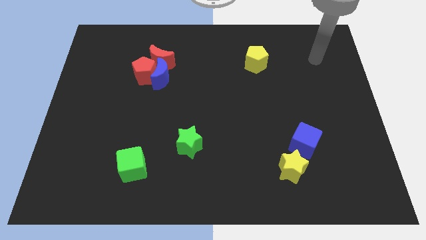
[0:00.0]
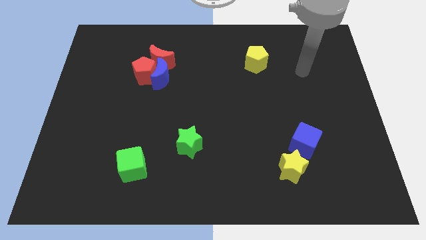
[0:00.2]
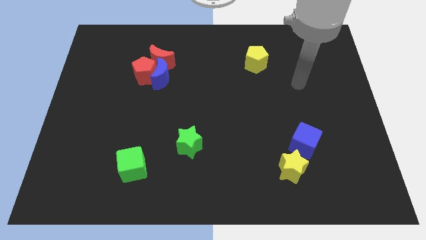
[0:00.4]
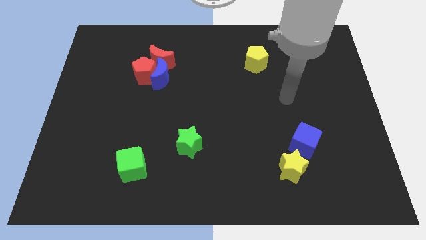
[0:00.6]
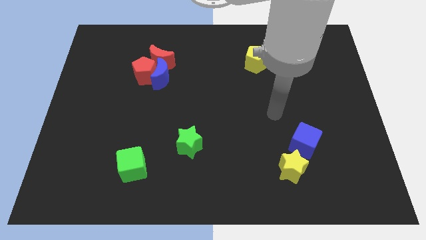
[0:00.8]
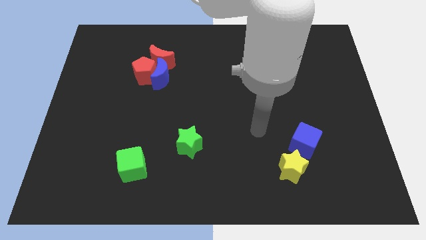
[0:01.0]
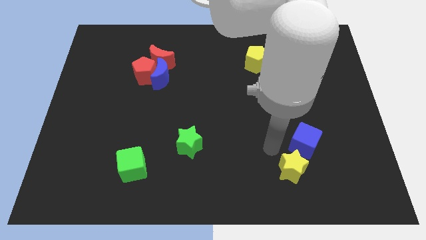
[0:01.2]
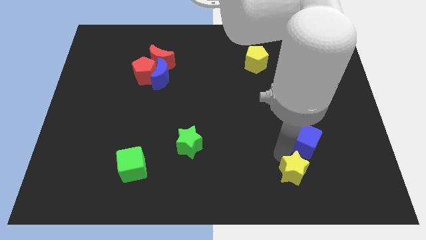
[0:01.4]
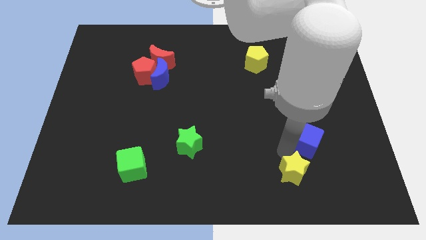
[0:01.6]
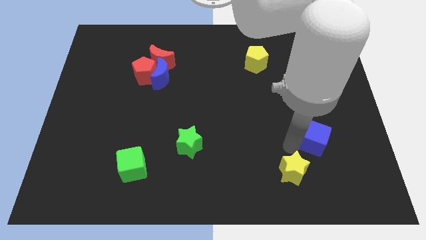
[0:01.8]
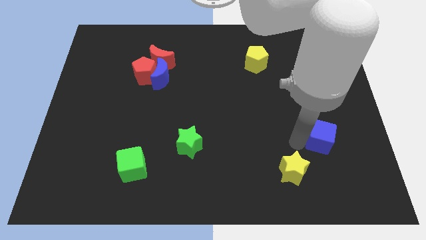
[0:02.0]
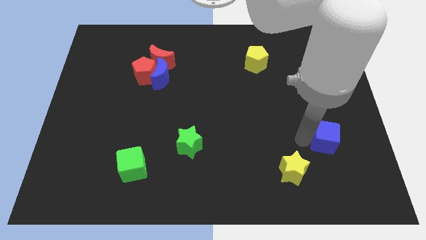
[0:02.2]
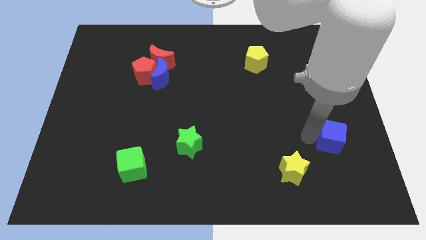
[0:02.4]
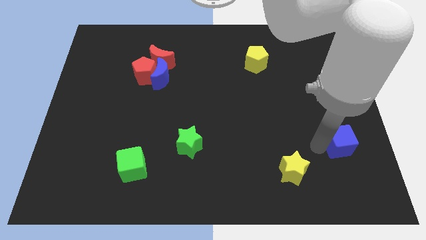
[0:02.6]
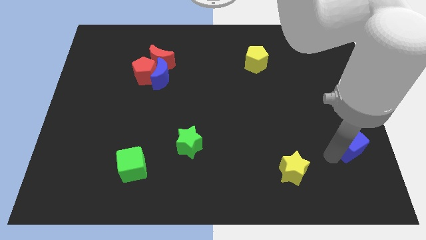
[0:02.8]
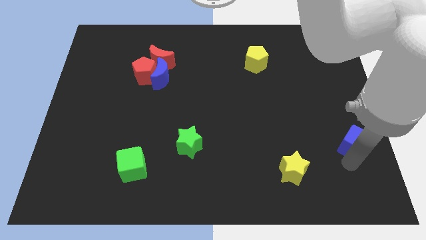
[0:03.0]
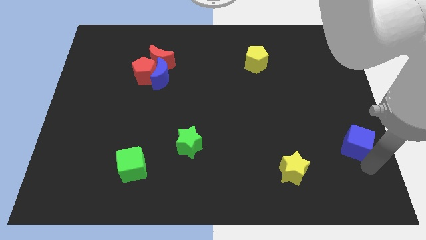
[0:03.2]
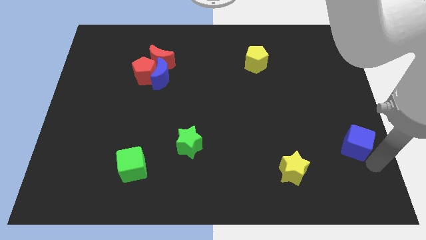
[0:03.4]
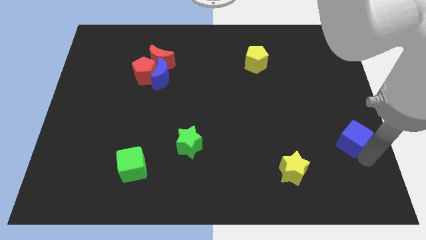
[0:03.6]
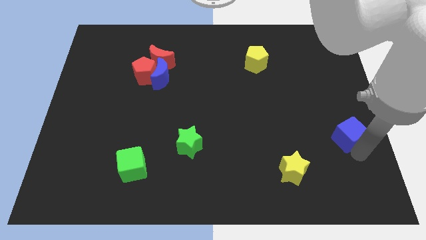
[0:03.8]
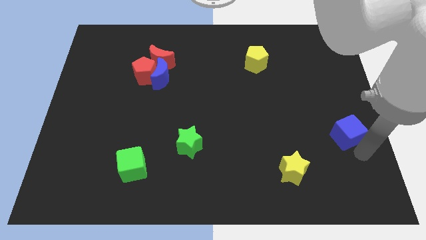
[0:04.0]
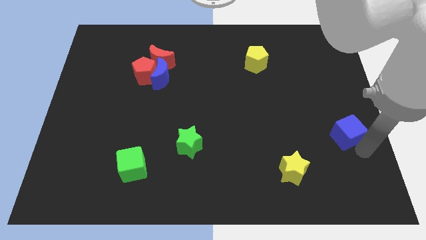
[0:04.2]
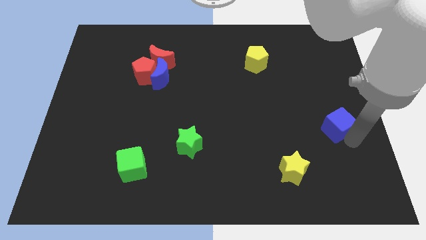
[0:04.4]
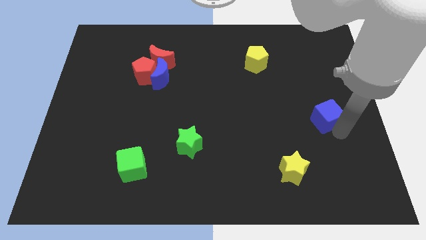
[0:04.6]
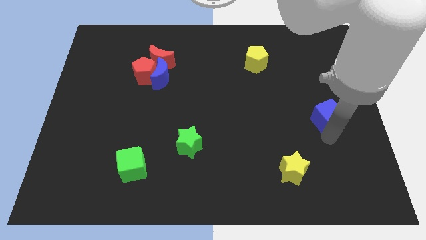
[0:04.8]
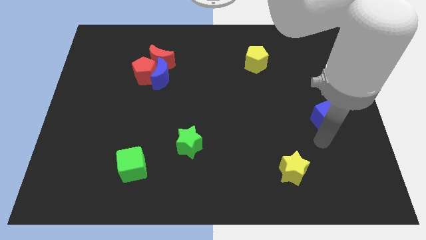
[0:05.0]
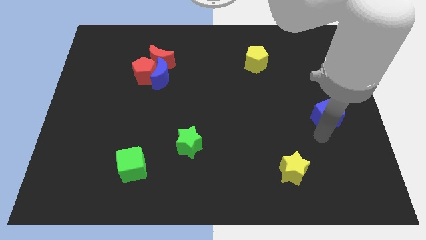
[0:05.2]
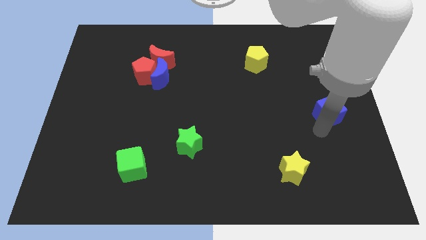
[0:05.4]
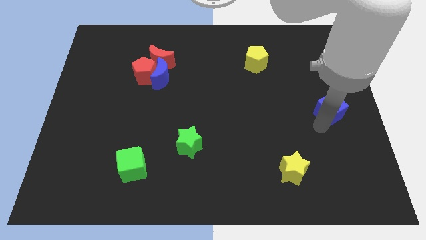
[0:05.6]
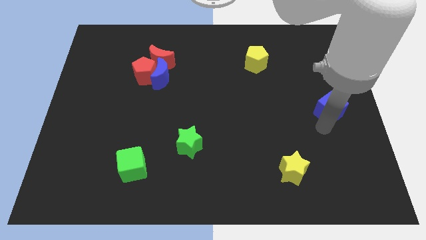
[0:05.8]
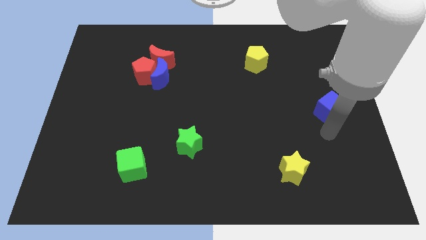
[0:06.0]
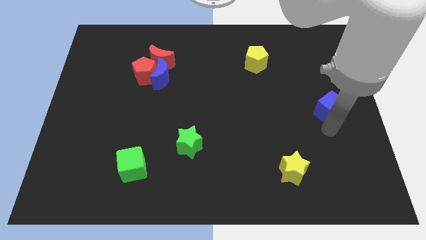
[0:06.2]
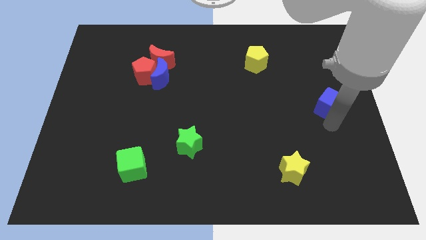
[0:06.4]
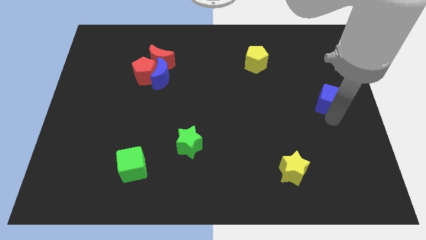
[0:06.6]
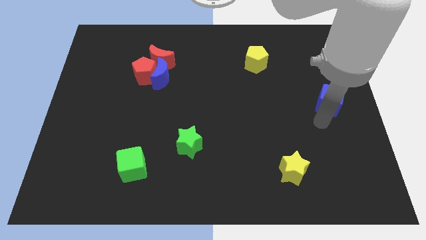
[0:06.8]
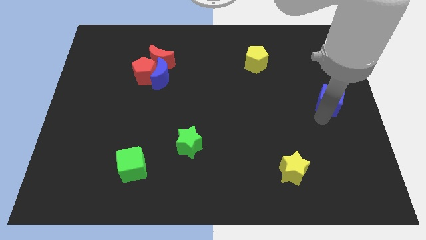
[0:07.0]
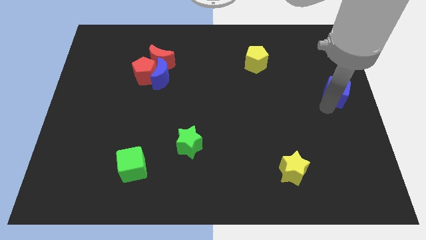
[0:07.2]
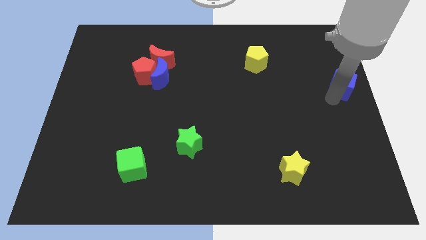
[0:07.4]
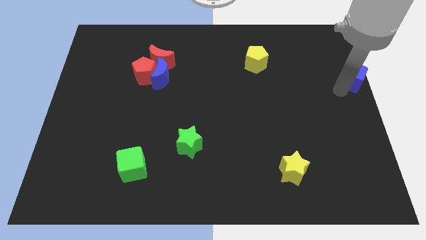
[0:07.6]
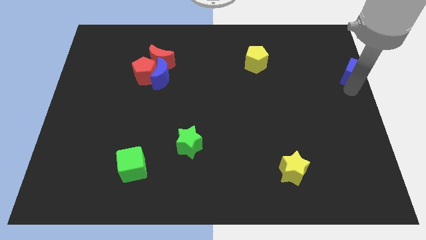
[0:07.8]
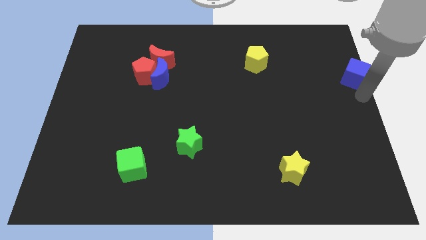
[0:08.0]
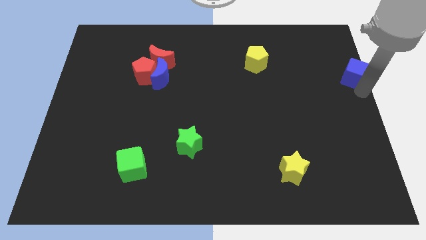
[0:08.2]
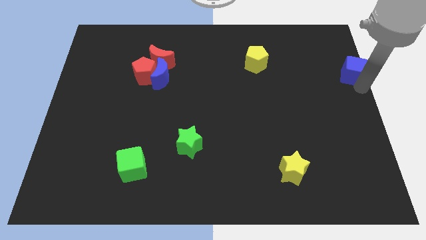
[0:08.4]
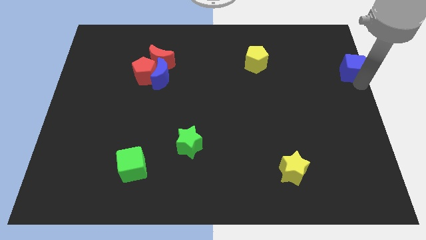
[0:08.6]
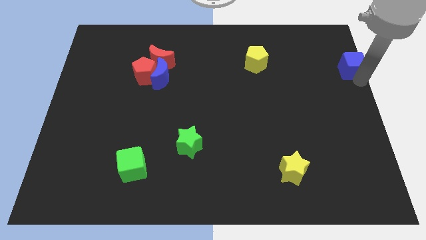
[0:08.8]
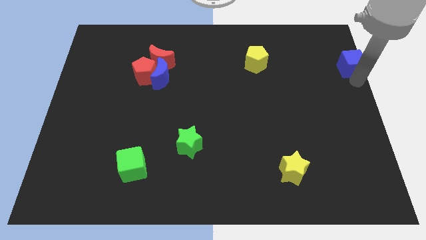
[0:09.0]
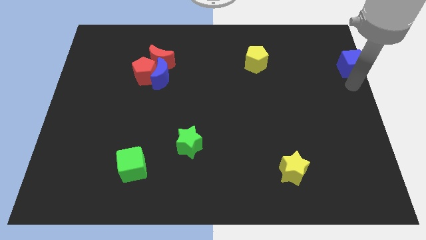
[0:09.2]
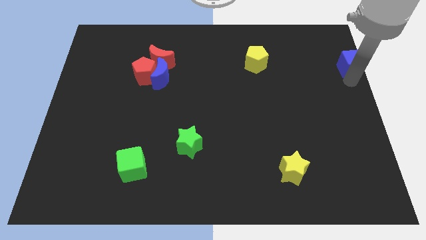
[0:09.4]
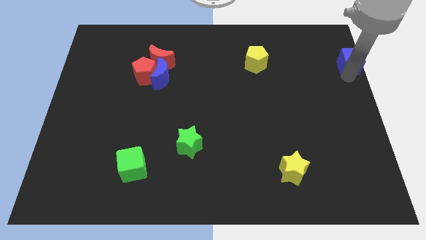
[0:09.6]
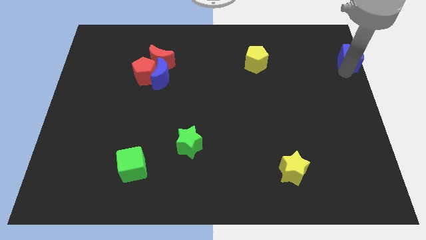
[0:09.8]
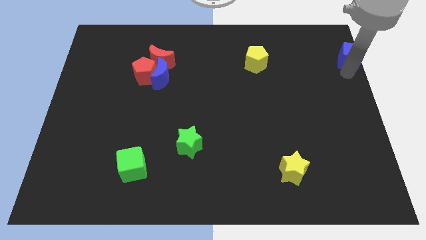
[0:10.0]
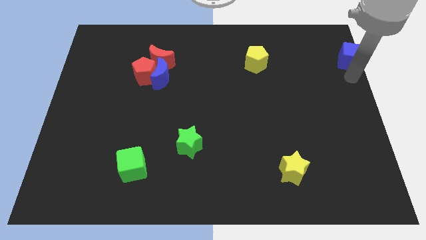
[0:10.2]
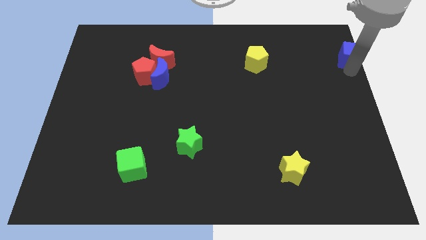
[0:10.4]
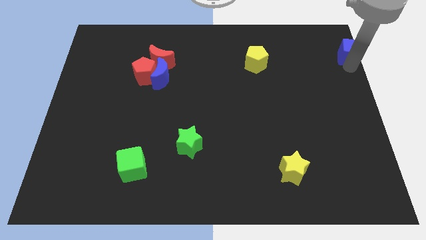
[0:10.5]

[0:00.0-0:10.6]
put the blue cube to the top right of the board
